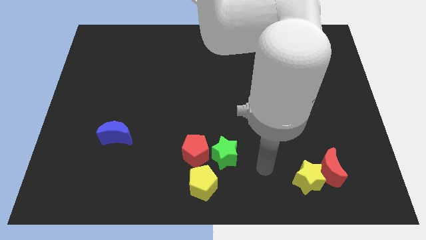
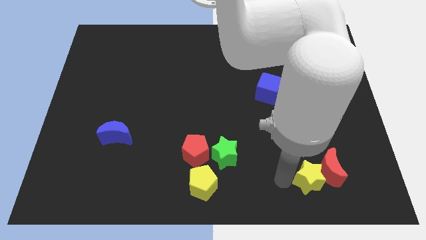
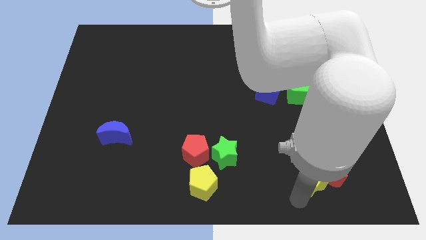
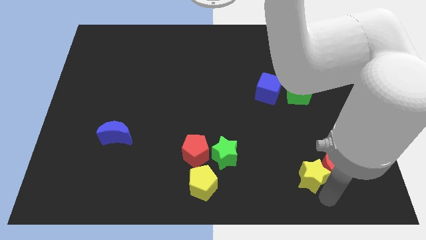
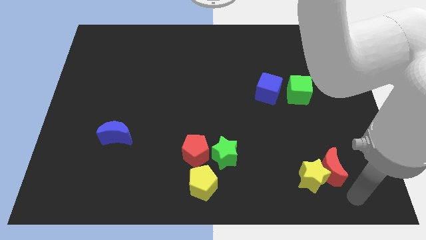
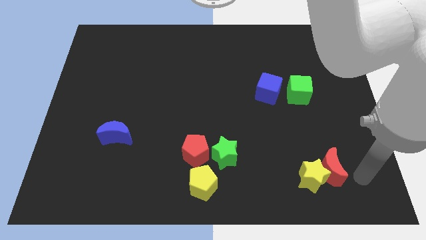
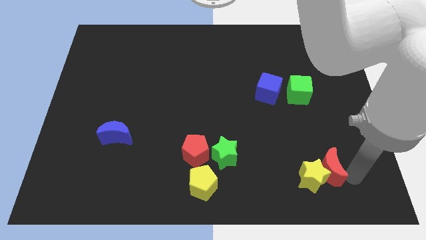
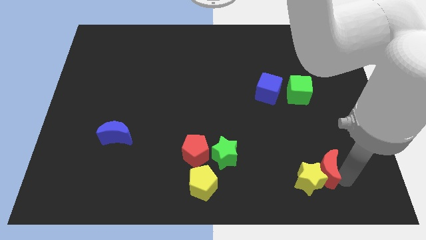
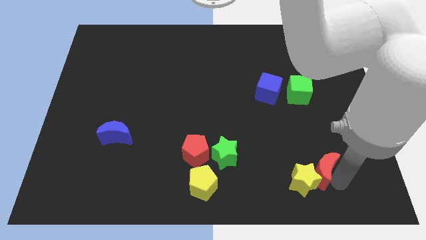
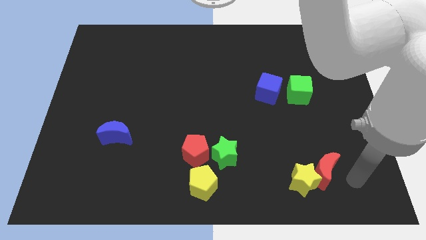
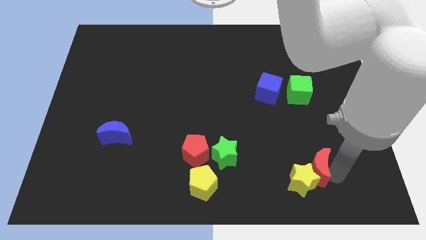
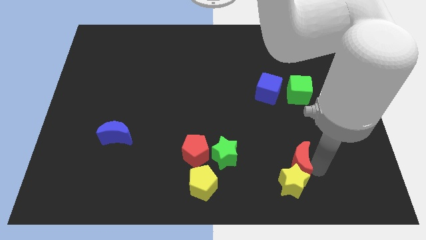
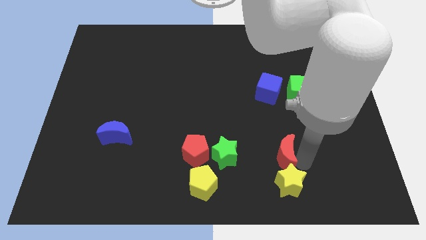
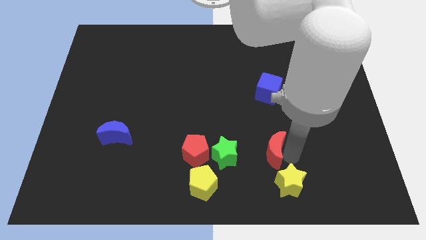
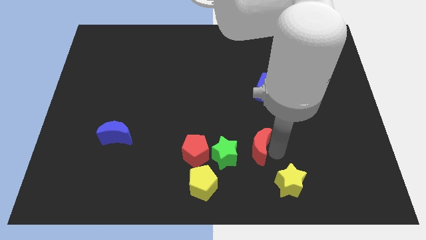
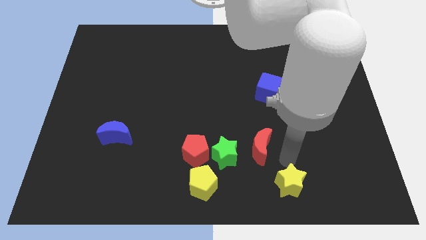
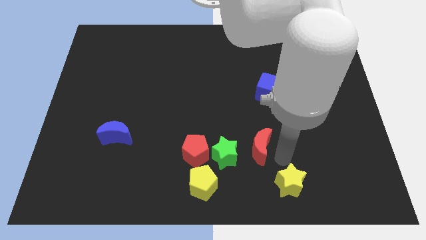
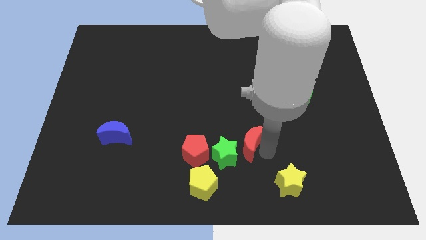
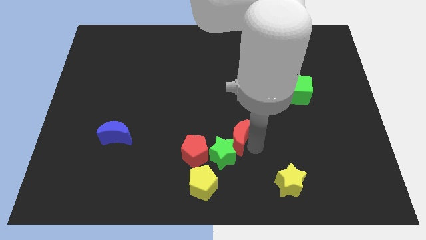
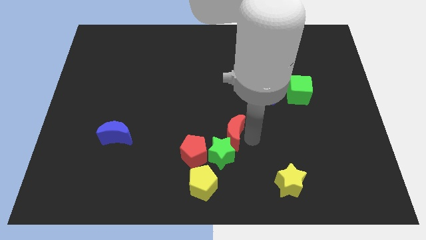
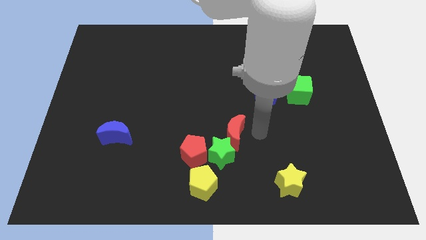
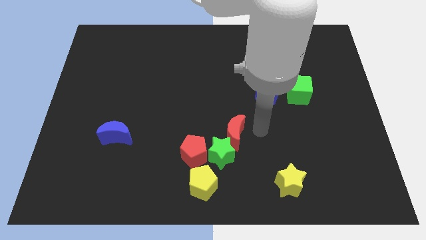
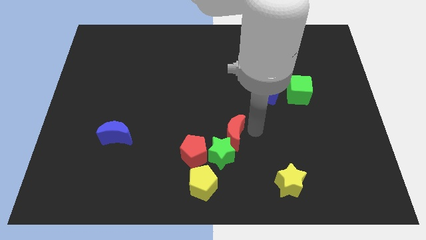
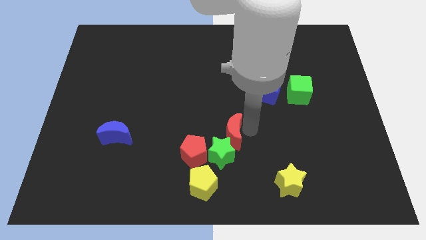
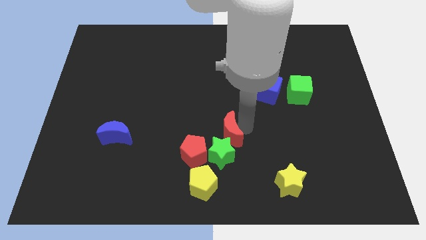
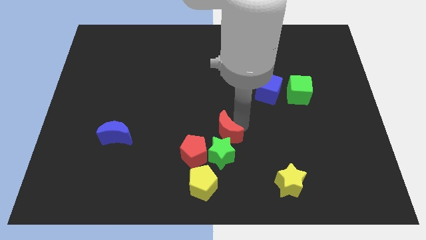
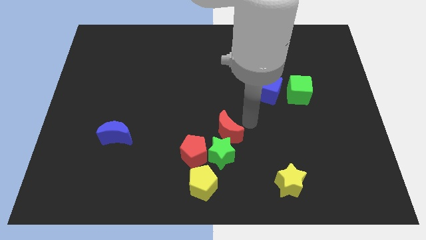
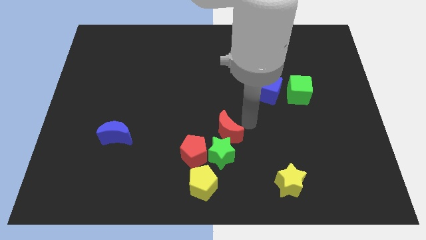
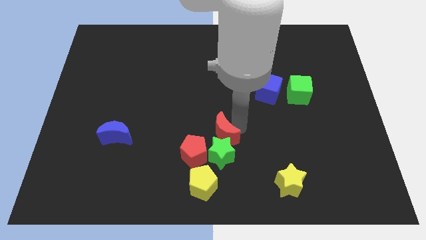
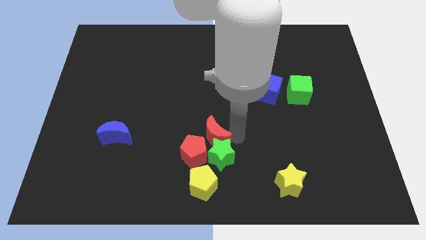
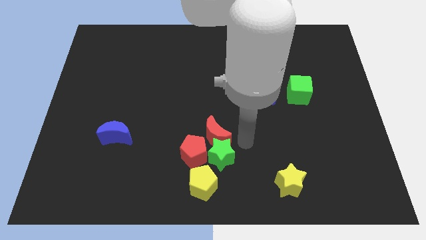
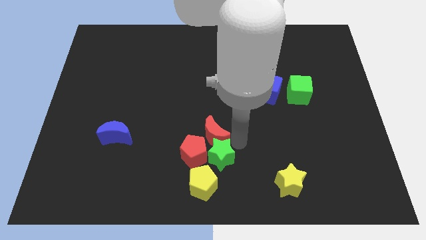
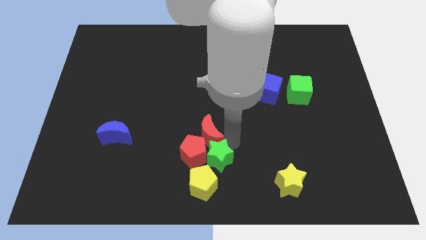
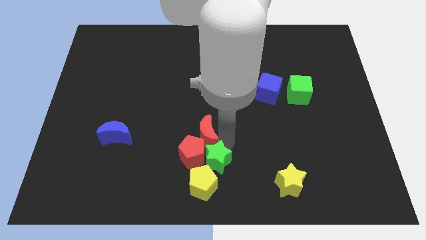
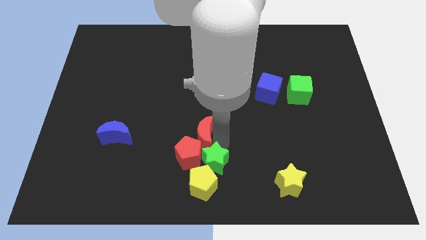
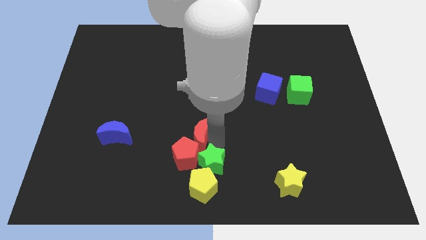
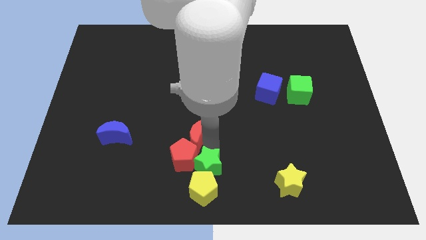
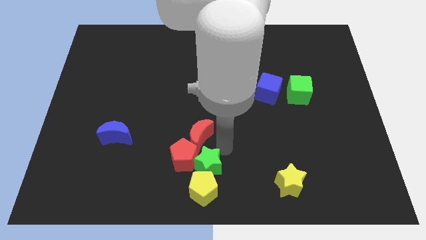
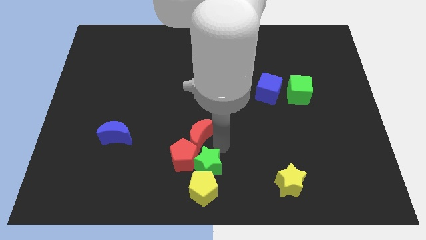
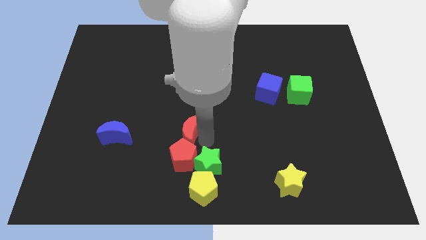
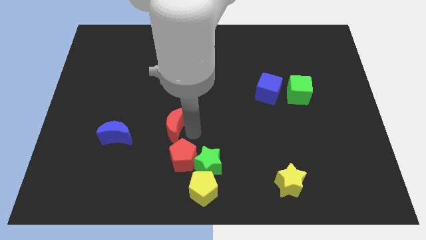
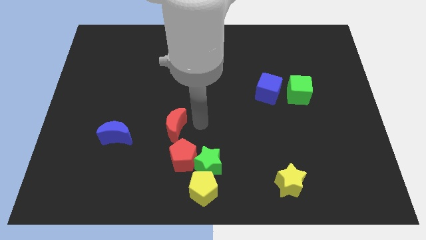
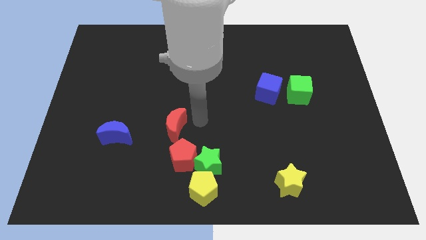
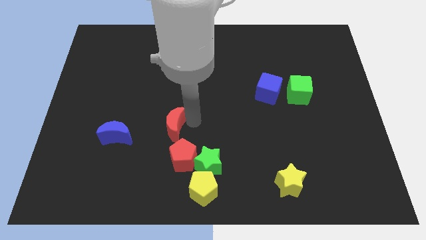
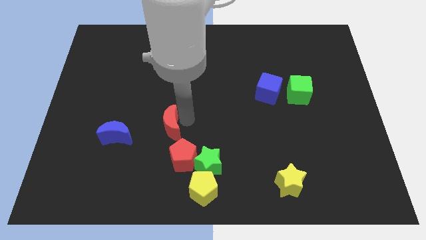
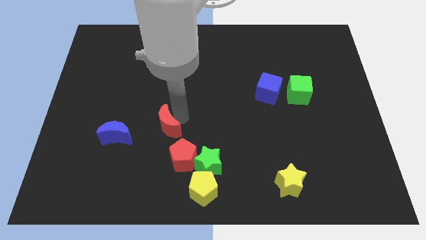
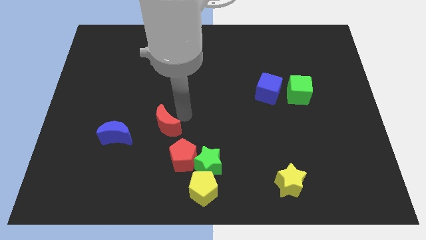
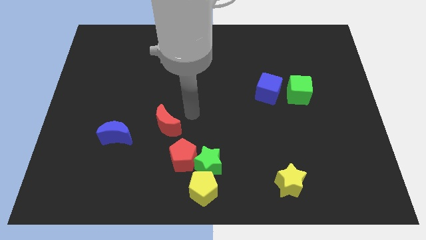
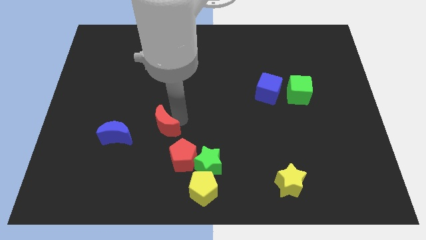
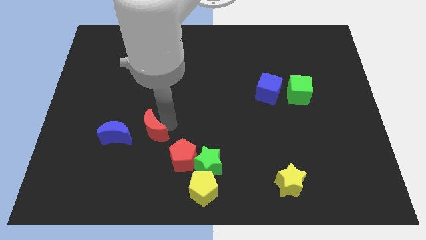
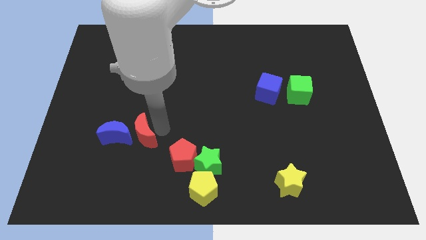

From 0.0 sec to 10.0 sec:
slide the red moon next to the blue moon

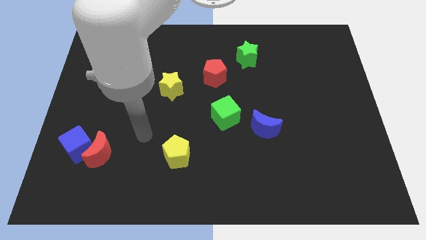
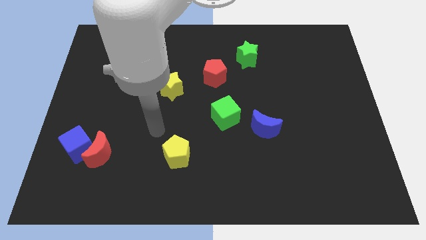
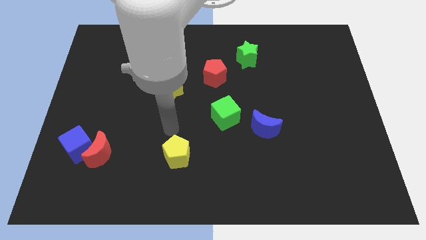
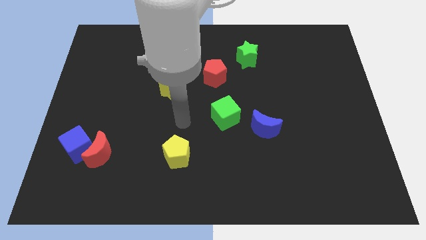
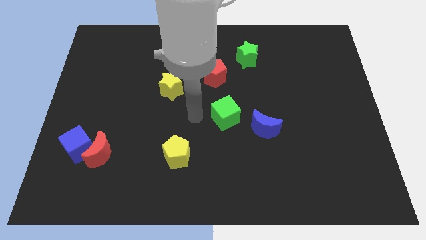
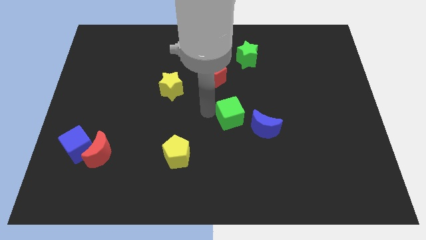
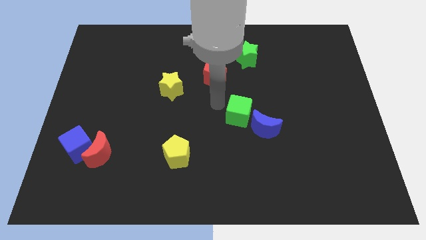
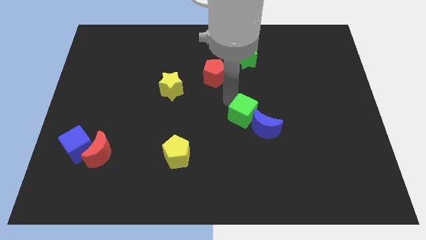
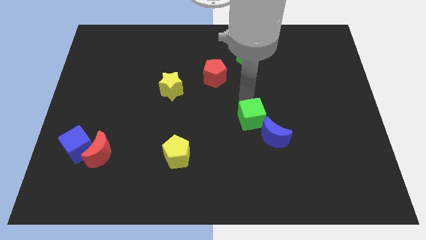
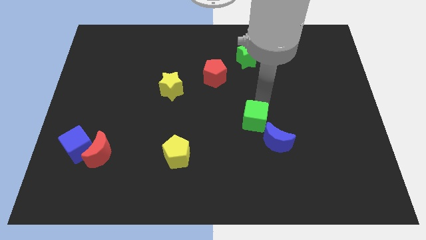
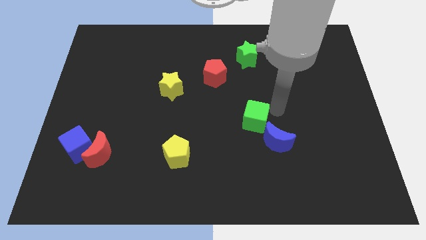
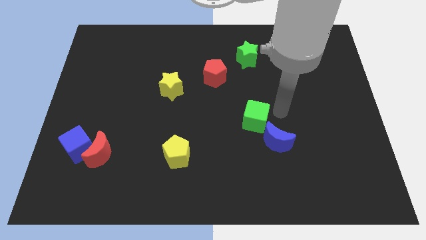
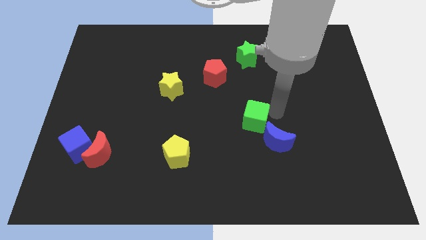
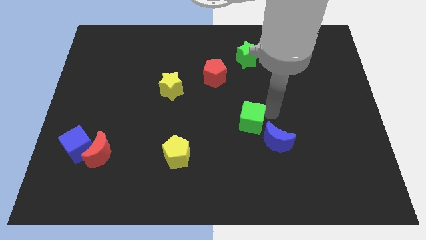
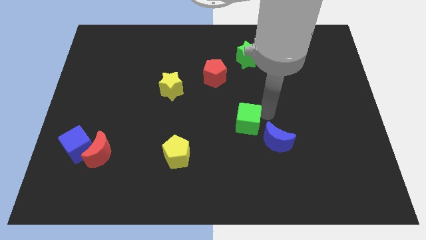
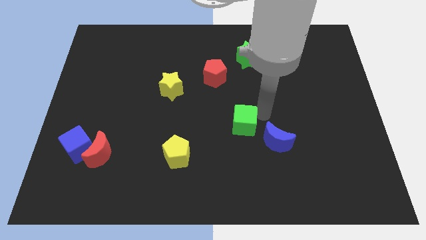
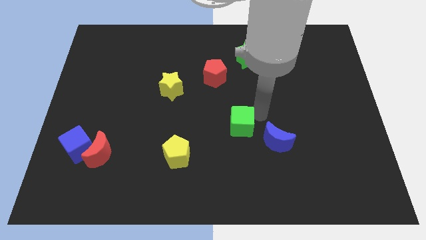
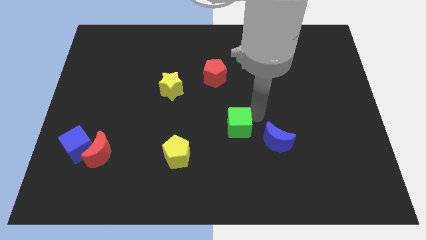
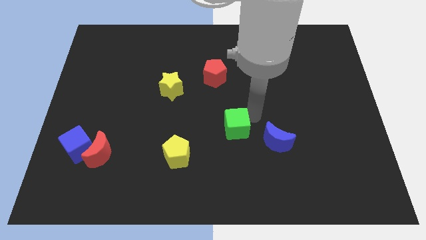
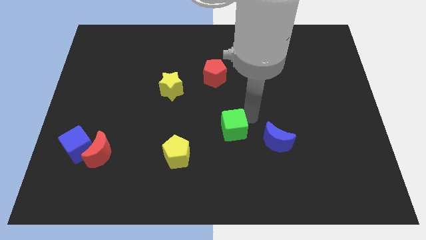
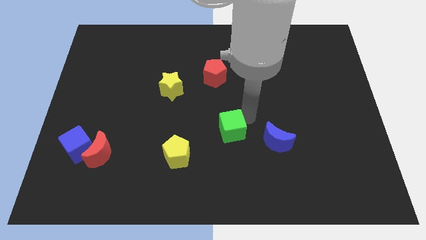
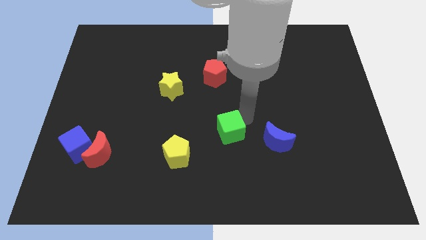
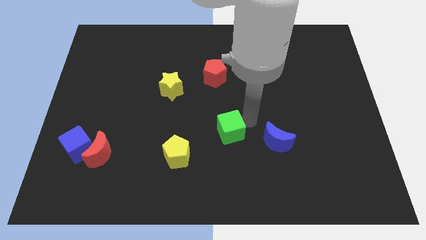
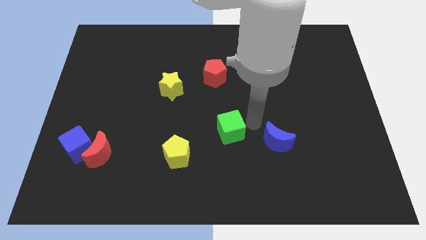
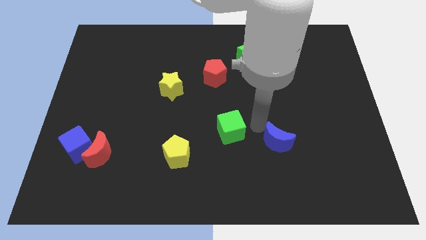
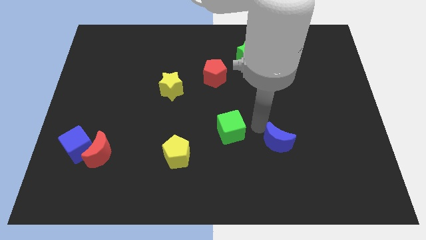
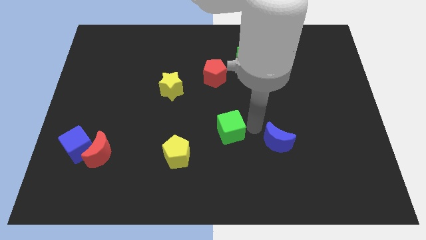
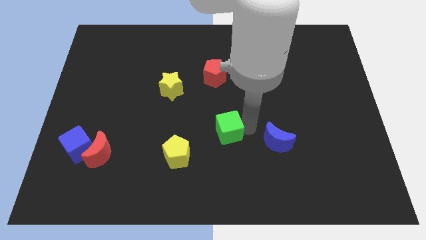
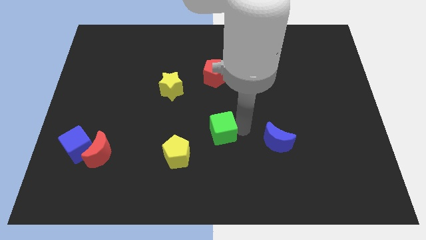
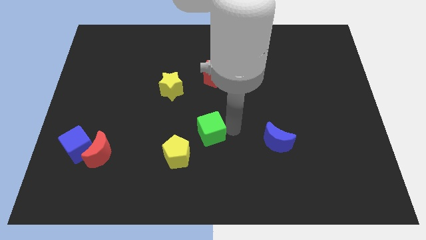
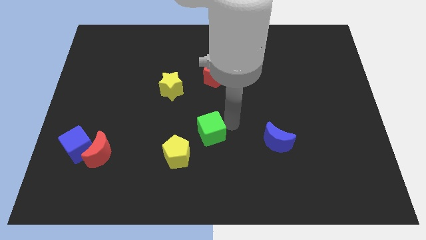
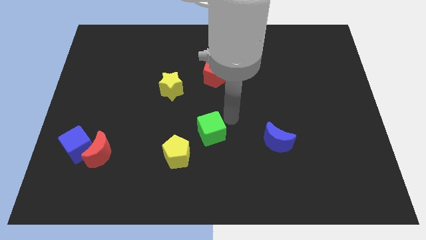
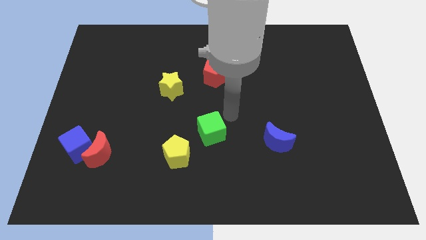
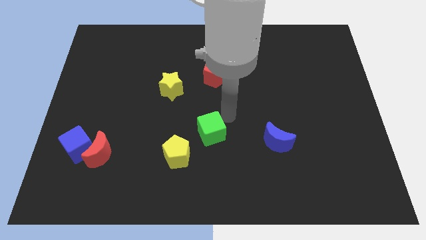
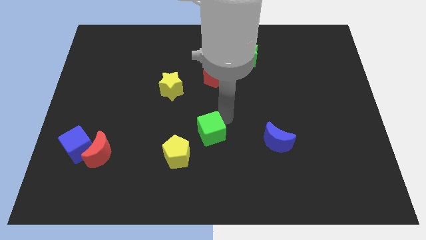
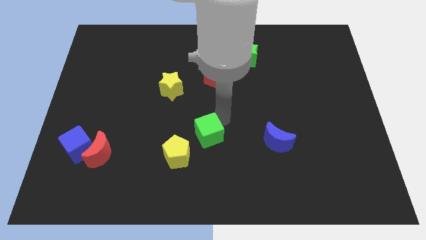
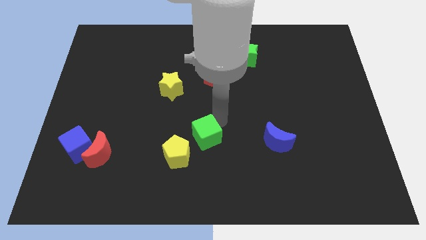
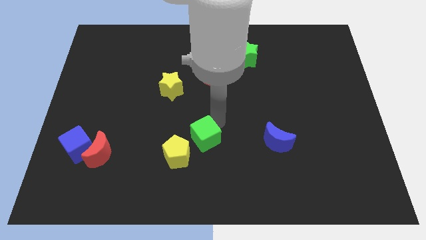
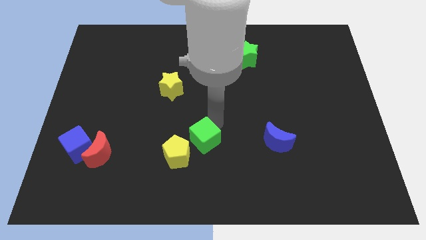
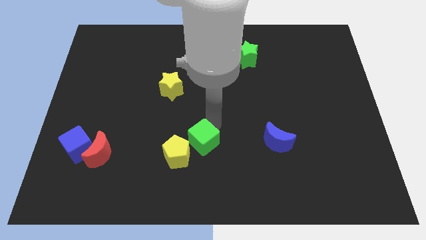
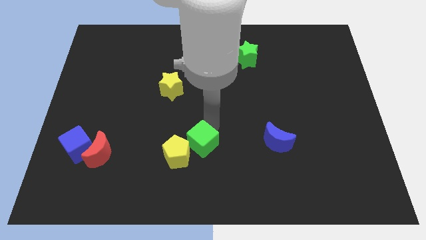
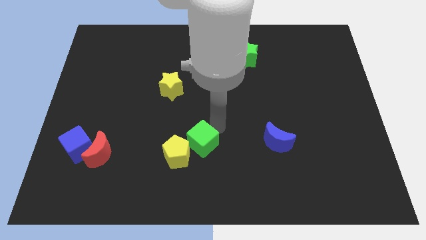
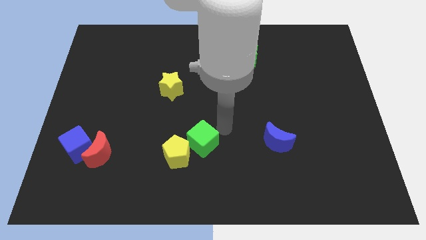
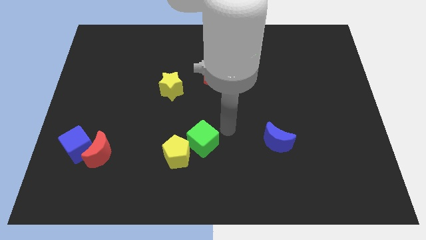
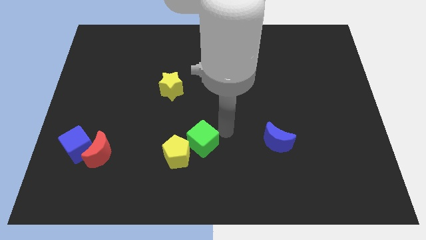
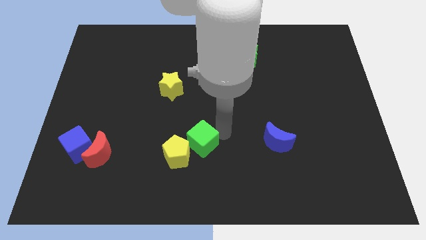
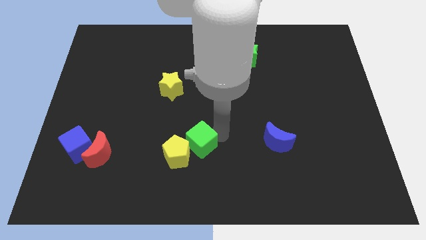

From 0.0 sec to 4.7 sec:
slide the green cube to the yellow pentagon
